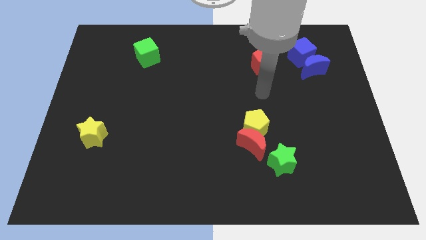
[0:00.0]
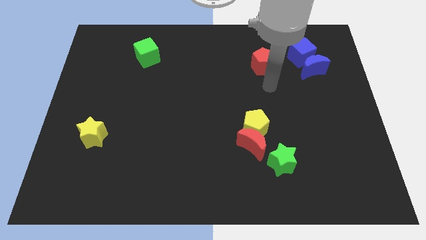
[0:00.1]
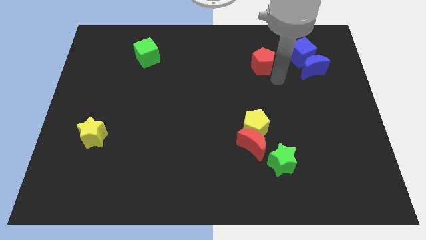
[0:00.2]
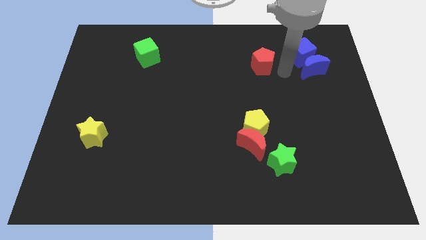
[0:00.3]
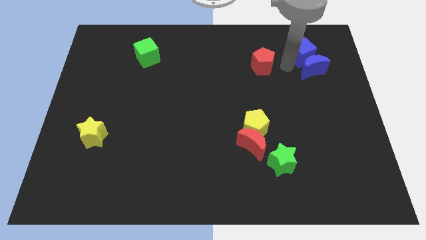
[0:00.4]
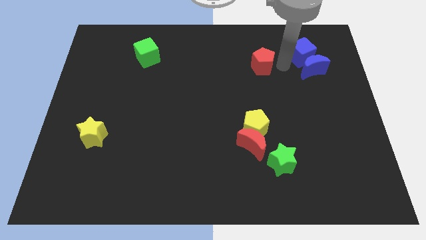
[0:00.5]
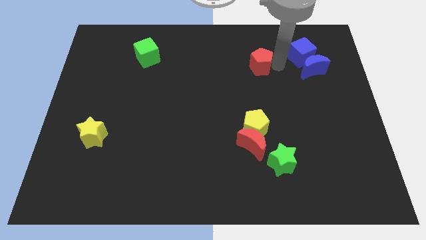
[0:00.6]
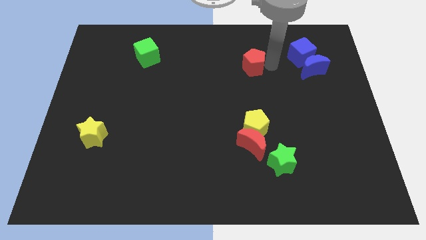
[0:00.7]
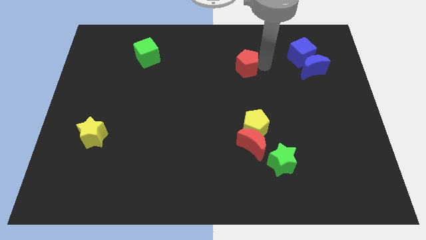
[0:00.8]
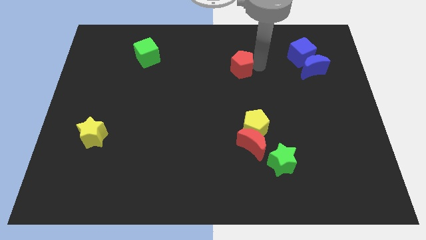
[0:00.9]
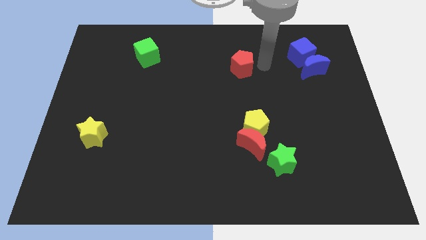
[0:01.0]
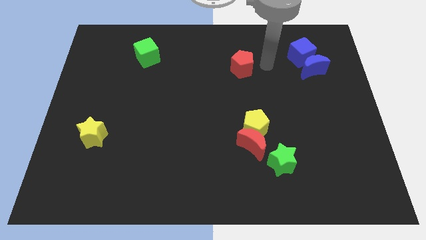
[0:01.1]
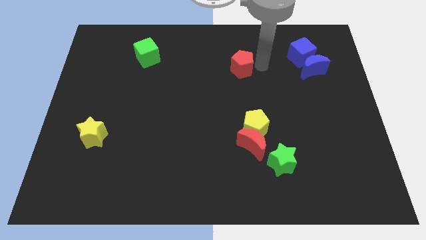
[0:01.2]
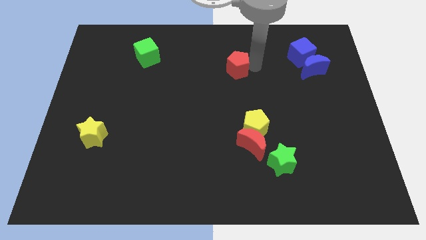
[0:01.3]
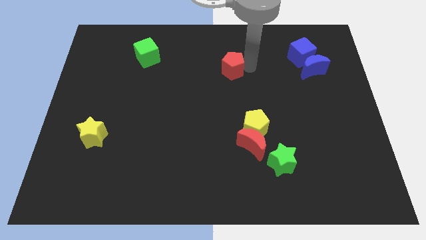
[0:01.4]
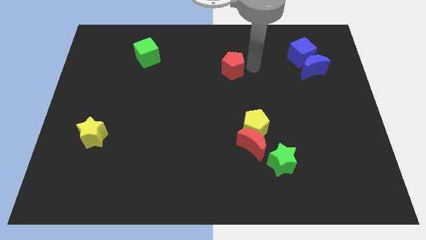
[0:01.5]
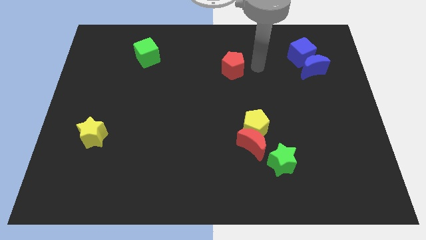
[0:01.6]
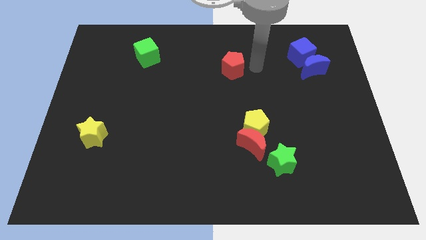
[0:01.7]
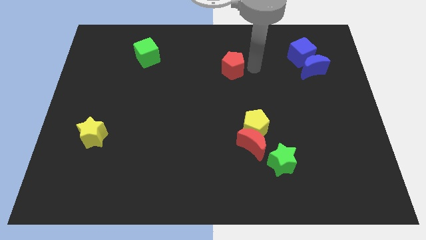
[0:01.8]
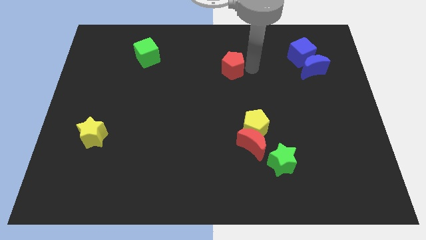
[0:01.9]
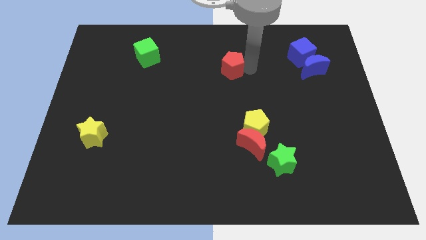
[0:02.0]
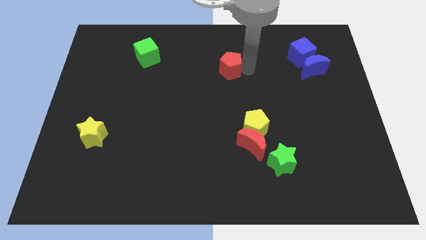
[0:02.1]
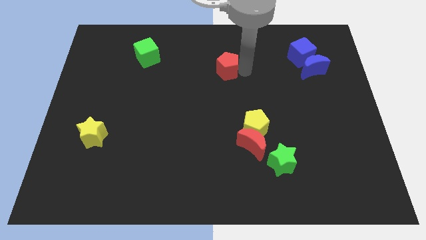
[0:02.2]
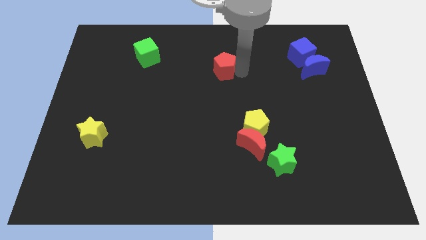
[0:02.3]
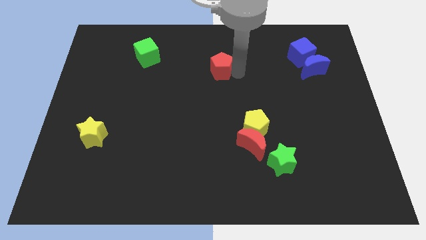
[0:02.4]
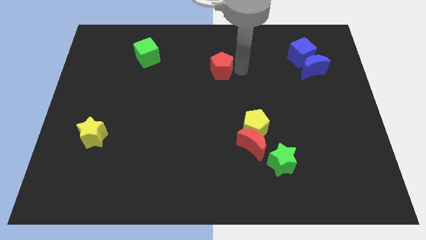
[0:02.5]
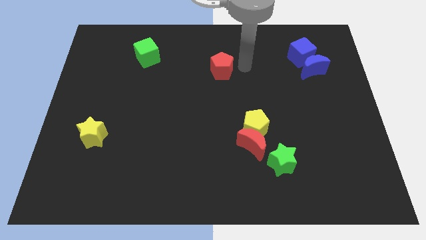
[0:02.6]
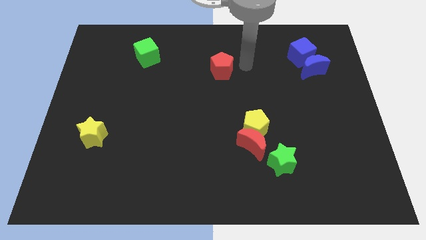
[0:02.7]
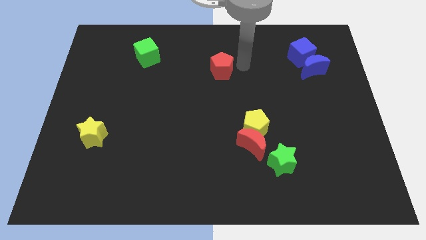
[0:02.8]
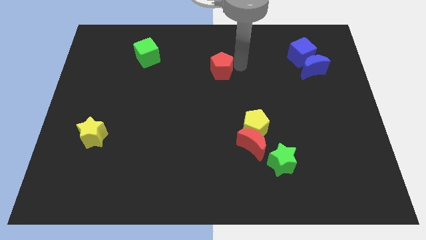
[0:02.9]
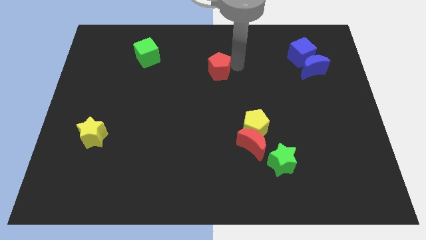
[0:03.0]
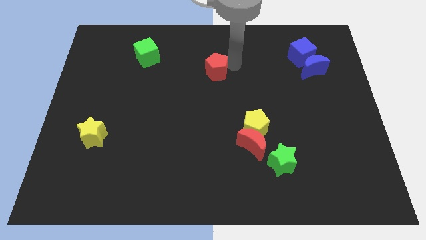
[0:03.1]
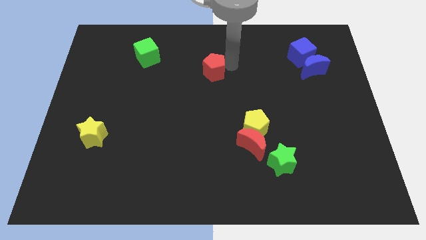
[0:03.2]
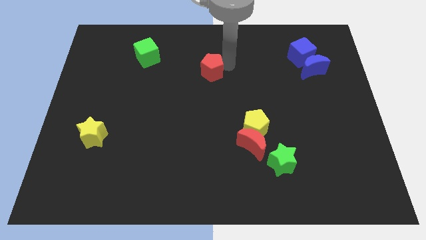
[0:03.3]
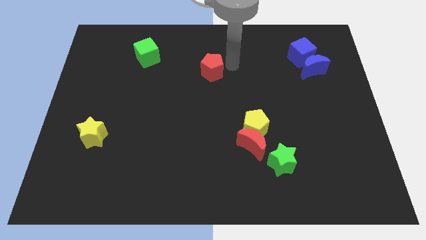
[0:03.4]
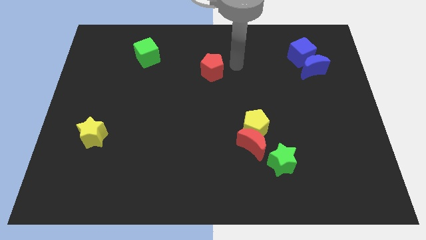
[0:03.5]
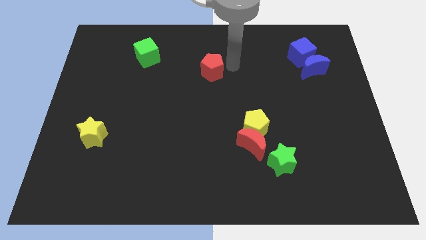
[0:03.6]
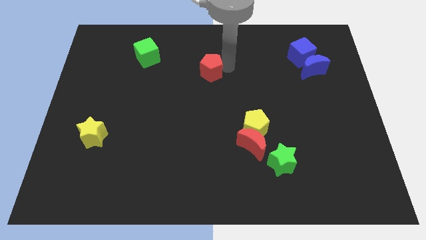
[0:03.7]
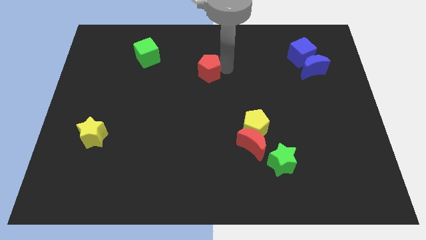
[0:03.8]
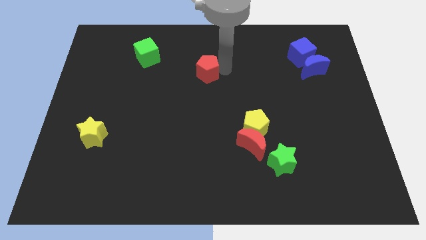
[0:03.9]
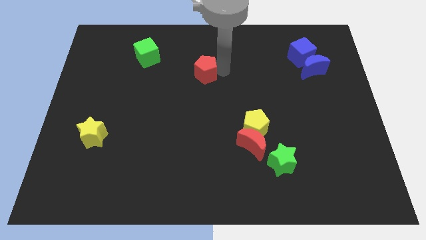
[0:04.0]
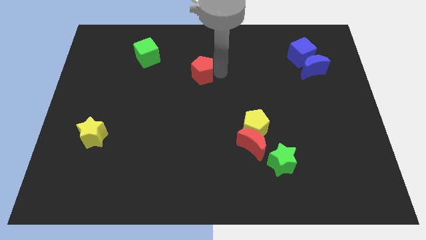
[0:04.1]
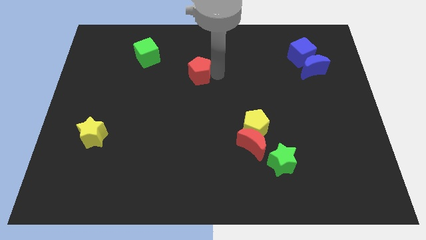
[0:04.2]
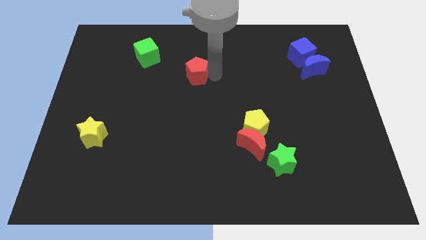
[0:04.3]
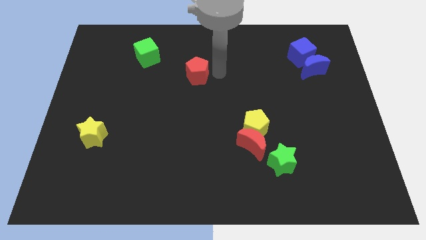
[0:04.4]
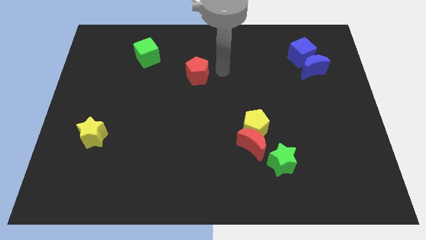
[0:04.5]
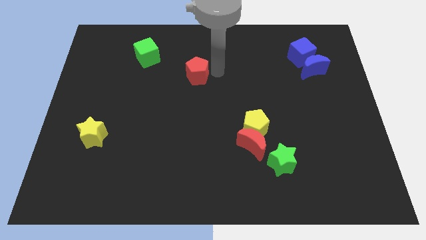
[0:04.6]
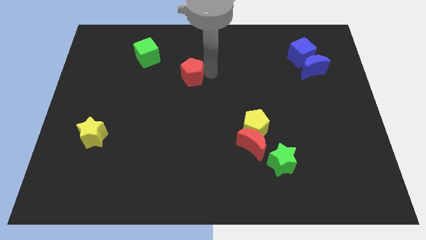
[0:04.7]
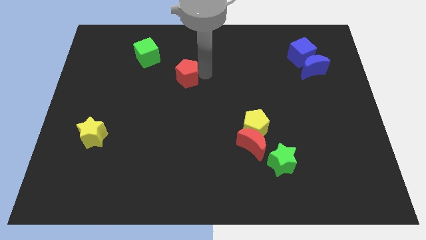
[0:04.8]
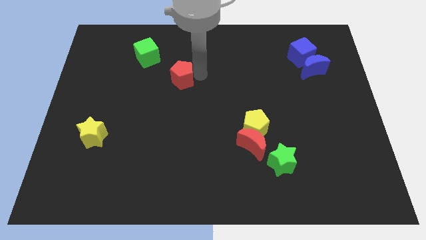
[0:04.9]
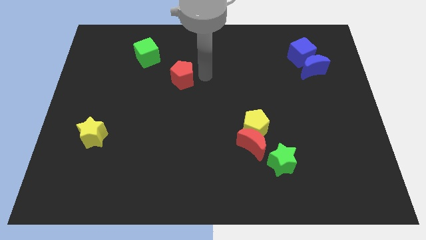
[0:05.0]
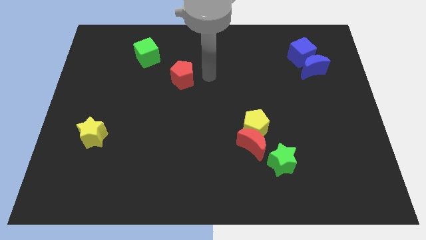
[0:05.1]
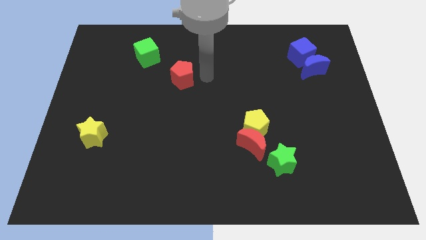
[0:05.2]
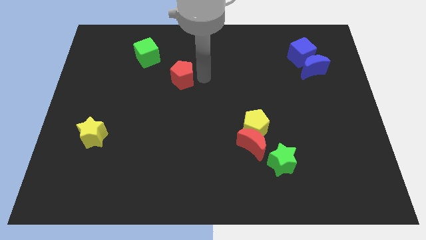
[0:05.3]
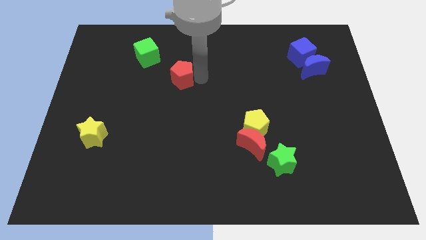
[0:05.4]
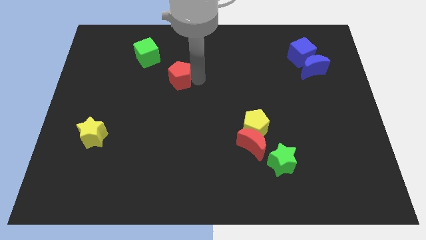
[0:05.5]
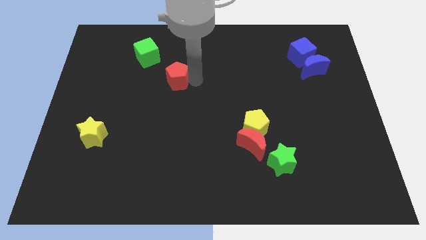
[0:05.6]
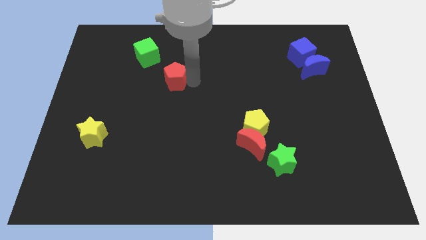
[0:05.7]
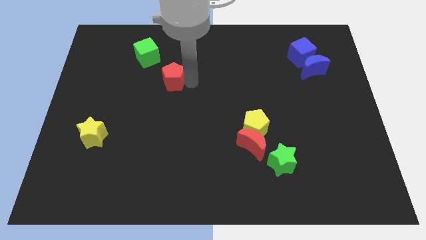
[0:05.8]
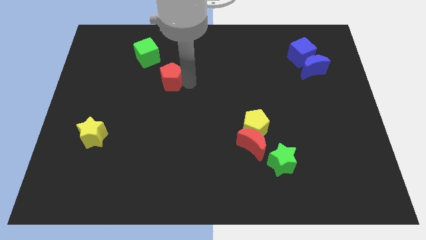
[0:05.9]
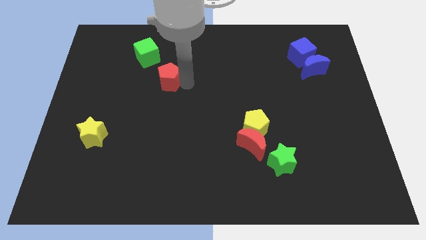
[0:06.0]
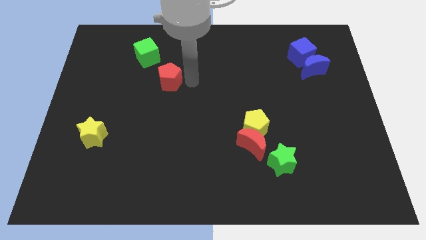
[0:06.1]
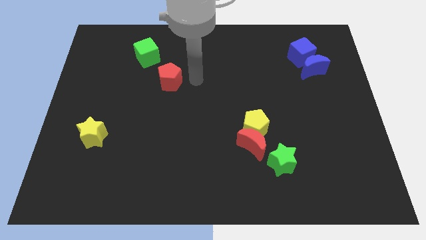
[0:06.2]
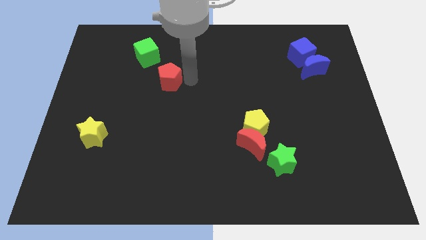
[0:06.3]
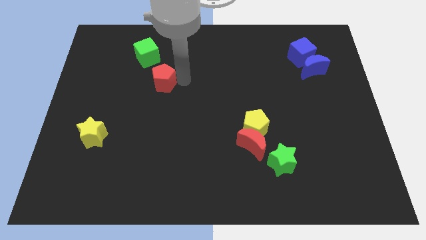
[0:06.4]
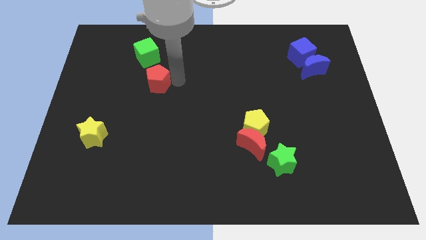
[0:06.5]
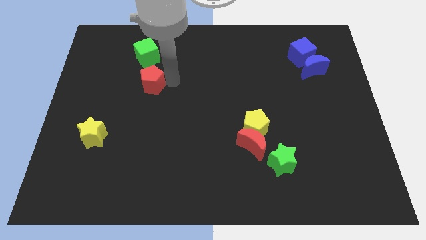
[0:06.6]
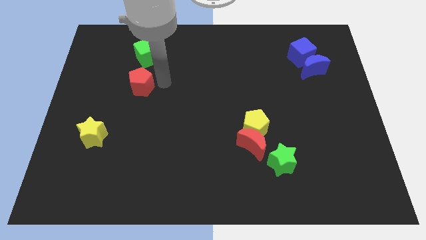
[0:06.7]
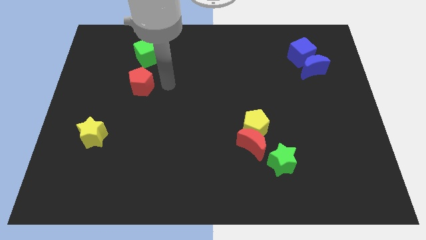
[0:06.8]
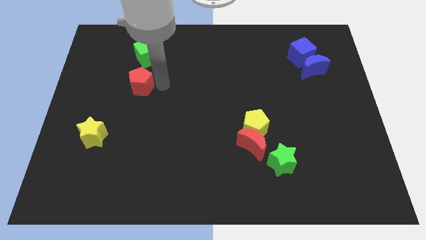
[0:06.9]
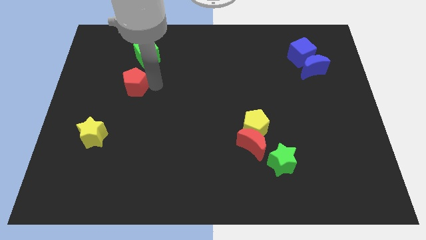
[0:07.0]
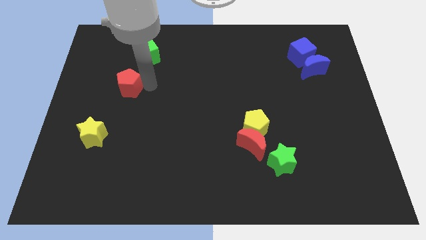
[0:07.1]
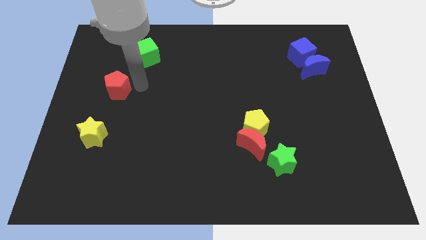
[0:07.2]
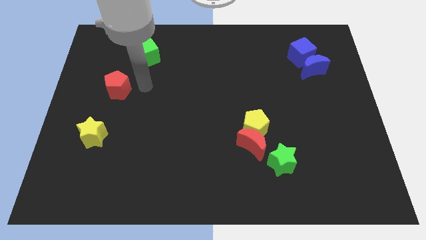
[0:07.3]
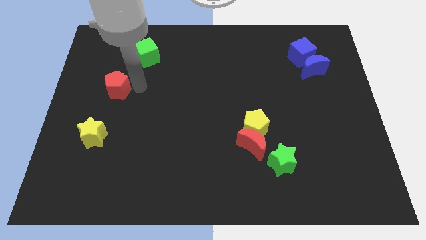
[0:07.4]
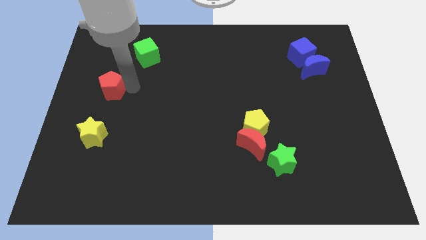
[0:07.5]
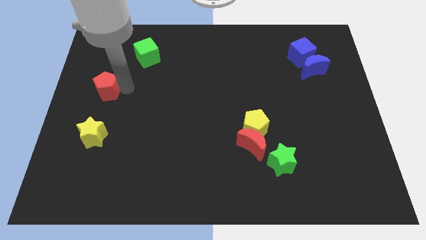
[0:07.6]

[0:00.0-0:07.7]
slide the red pentagon to the left side of the board
